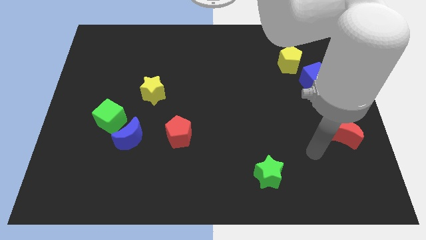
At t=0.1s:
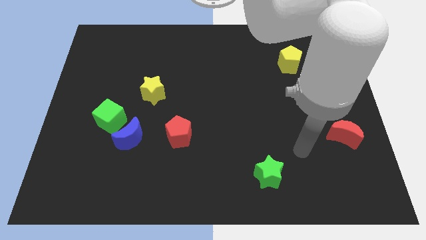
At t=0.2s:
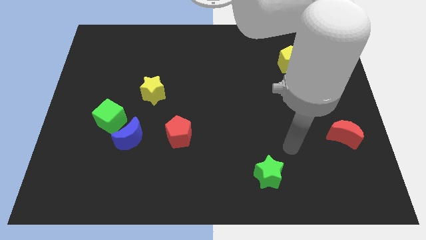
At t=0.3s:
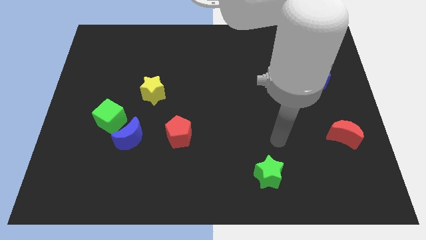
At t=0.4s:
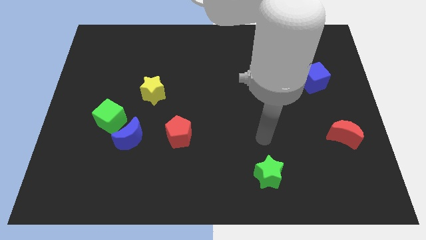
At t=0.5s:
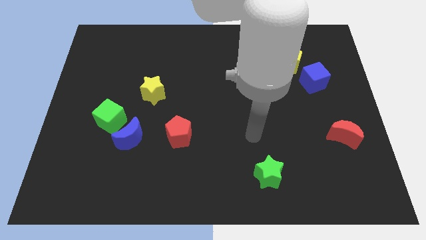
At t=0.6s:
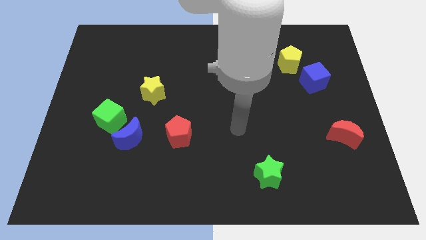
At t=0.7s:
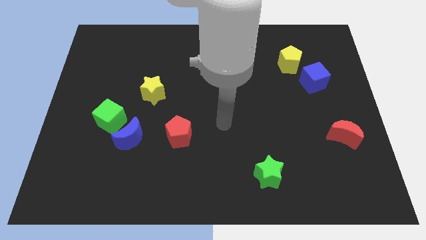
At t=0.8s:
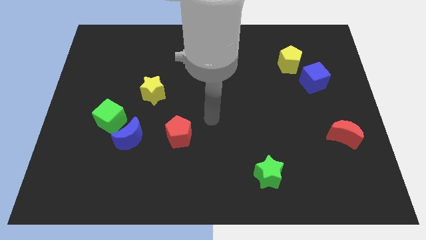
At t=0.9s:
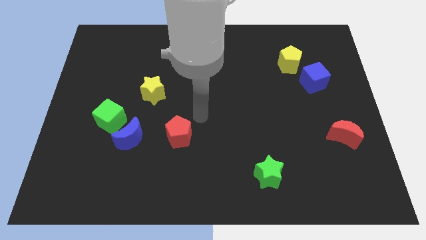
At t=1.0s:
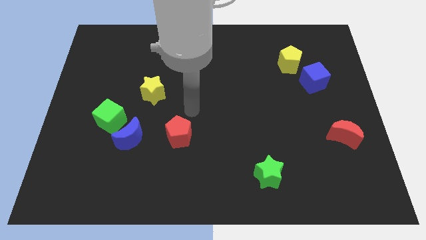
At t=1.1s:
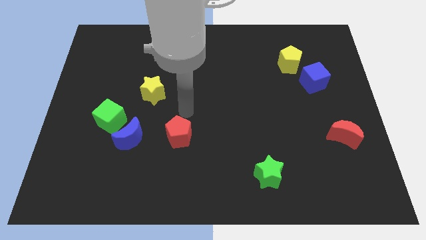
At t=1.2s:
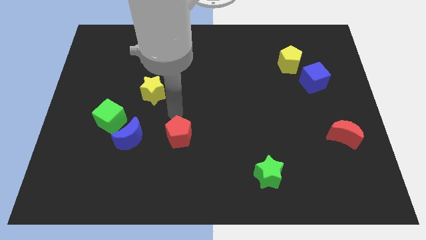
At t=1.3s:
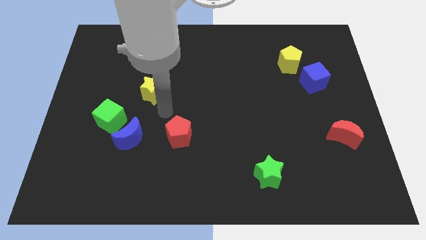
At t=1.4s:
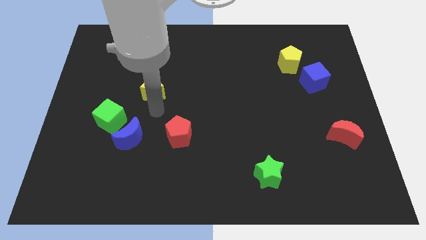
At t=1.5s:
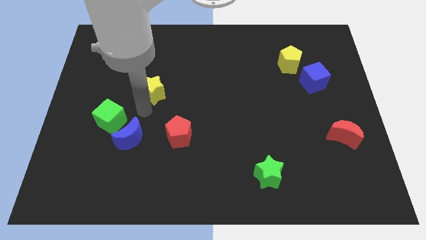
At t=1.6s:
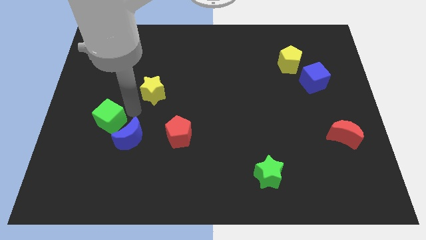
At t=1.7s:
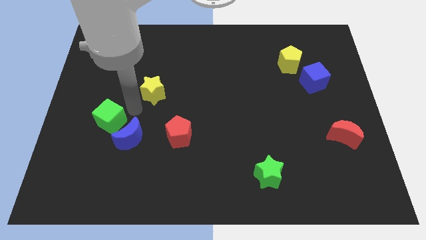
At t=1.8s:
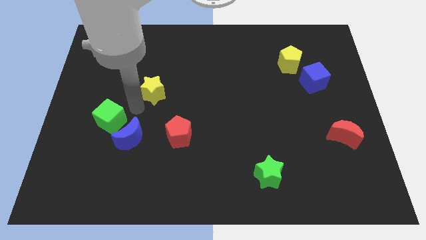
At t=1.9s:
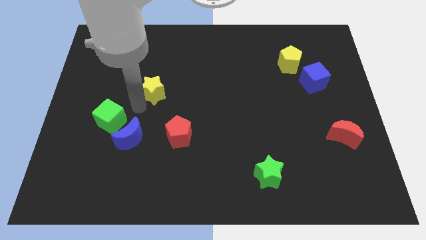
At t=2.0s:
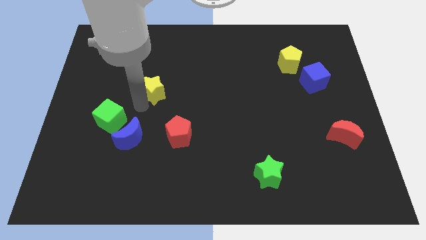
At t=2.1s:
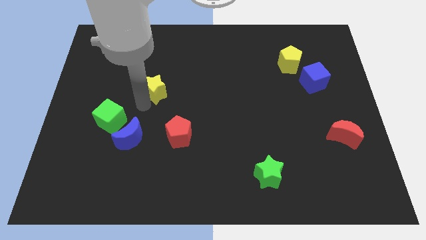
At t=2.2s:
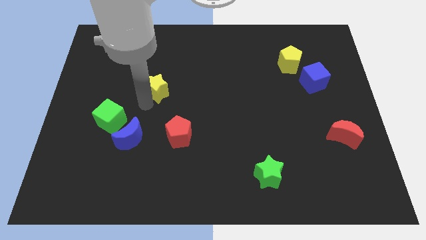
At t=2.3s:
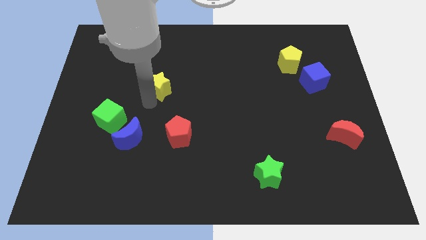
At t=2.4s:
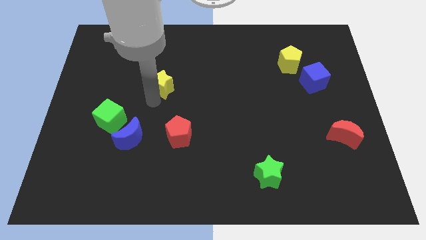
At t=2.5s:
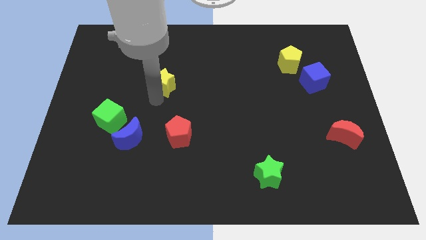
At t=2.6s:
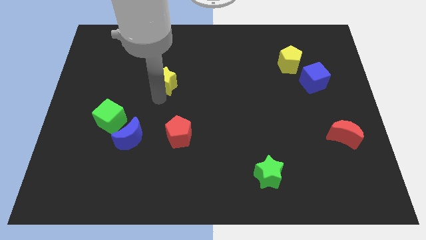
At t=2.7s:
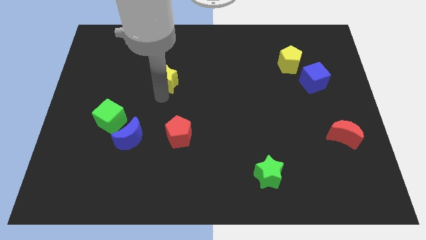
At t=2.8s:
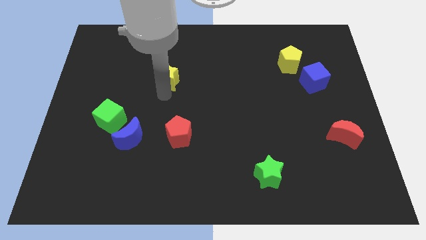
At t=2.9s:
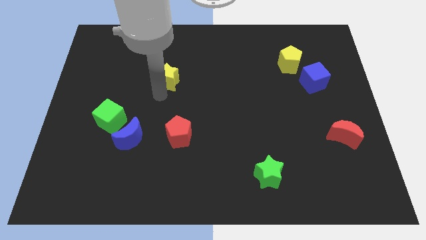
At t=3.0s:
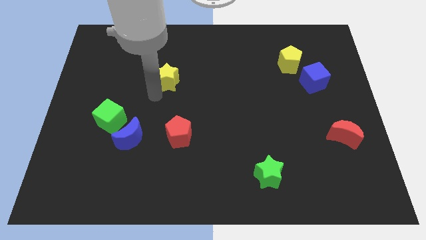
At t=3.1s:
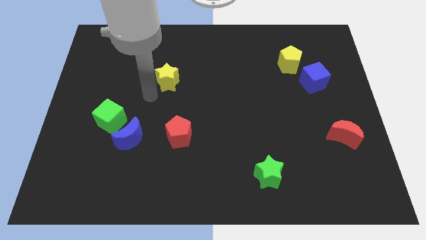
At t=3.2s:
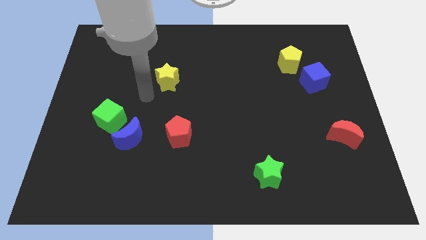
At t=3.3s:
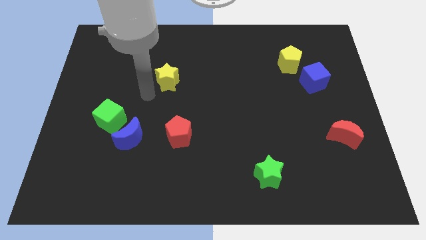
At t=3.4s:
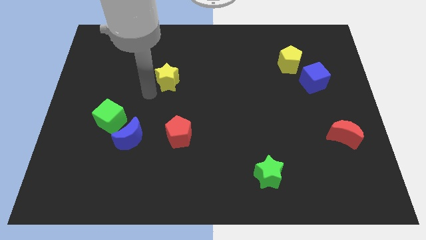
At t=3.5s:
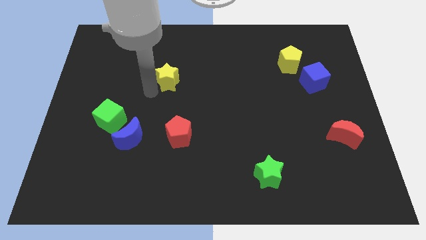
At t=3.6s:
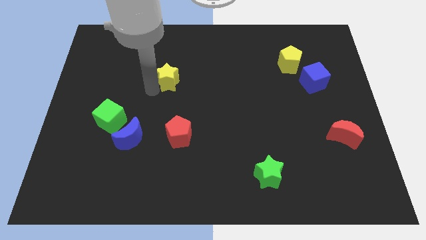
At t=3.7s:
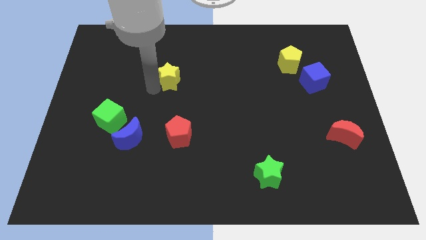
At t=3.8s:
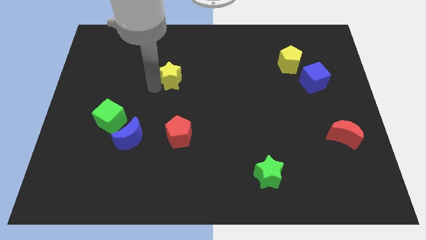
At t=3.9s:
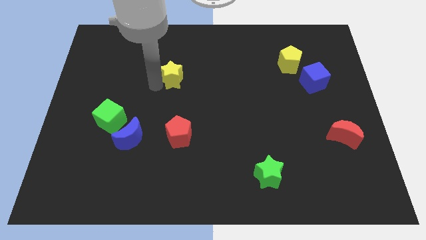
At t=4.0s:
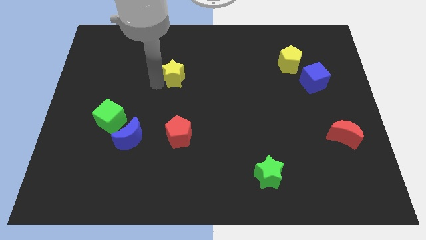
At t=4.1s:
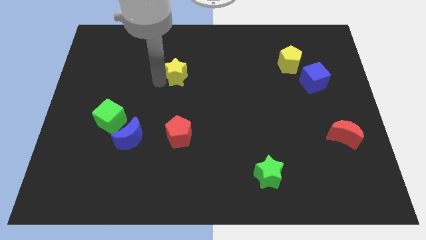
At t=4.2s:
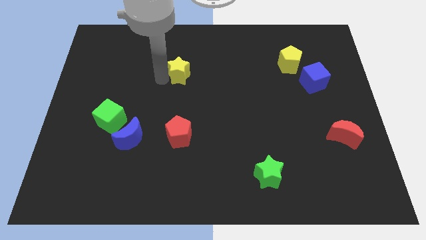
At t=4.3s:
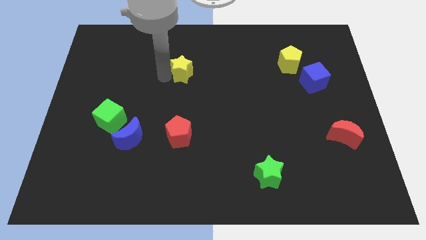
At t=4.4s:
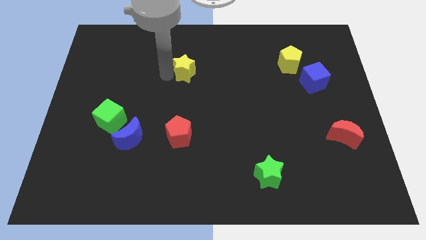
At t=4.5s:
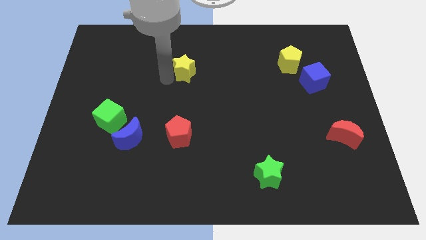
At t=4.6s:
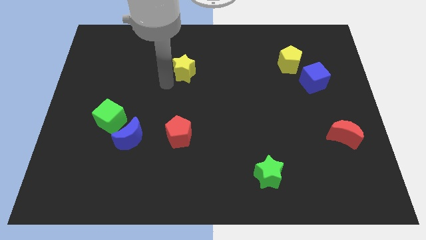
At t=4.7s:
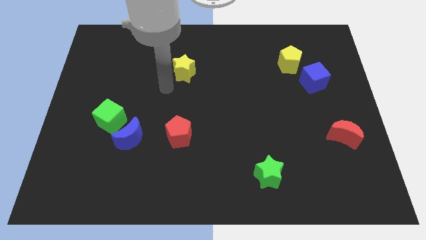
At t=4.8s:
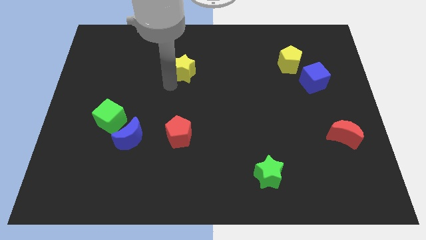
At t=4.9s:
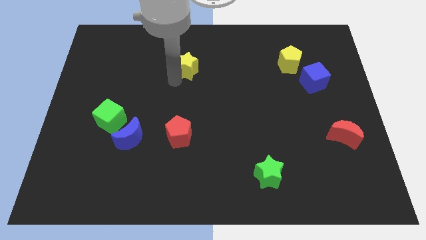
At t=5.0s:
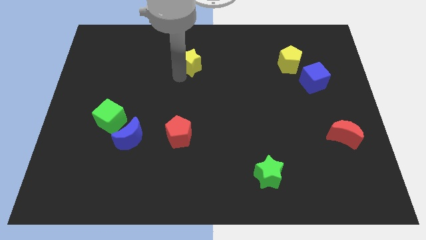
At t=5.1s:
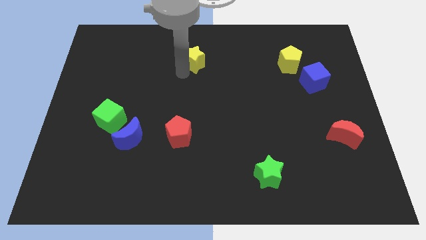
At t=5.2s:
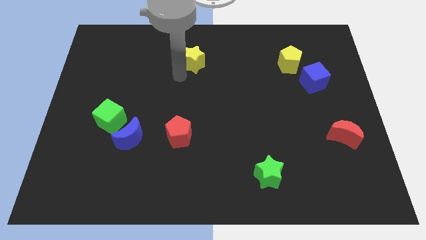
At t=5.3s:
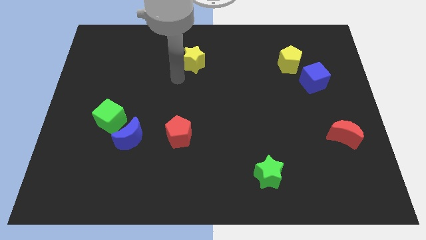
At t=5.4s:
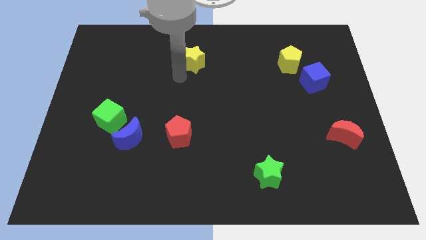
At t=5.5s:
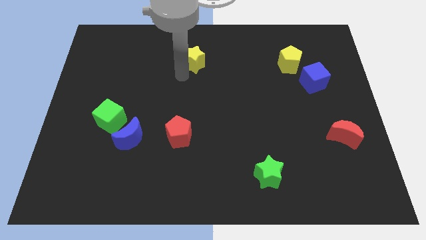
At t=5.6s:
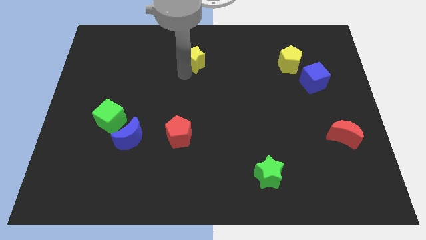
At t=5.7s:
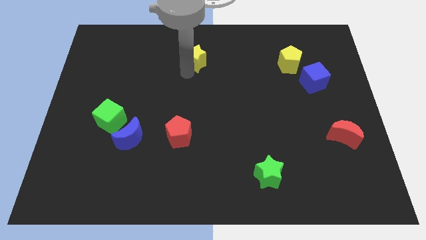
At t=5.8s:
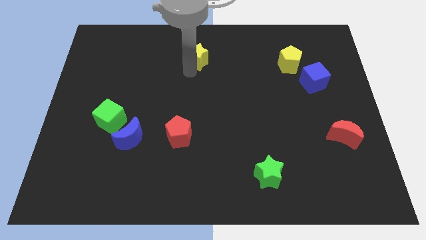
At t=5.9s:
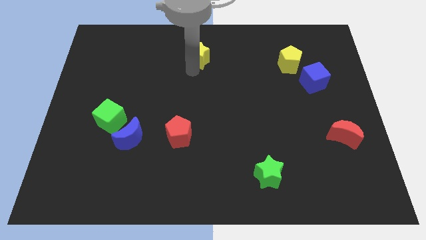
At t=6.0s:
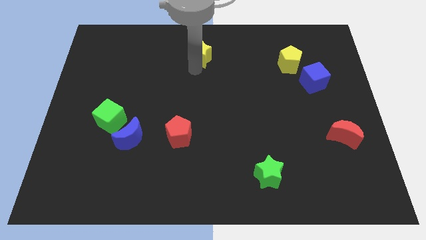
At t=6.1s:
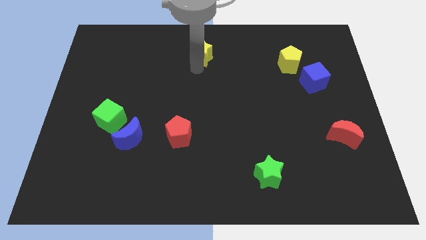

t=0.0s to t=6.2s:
put the yellow star to the top
